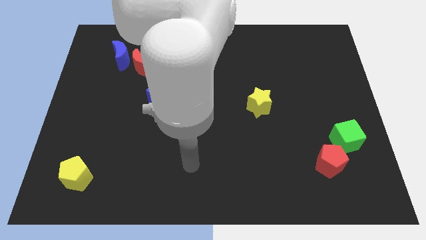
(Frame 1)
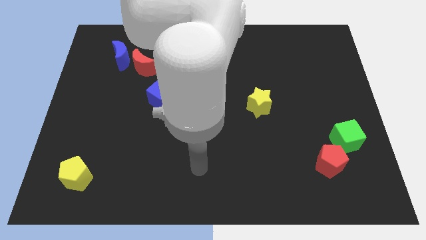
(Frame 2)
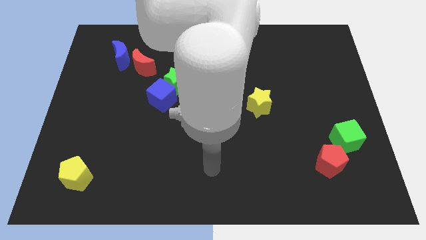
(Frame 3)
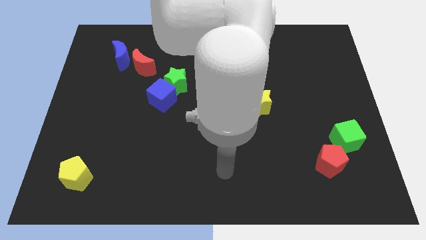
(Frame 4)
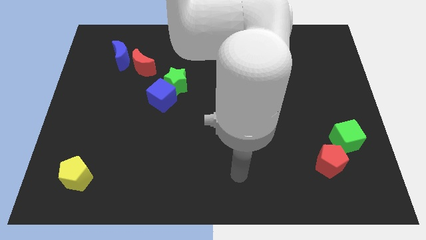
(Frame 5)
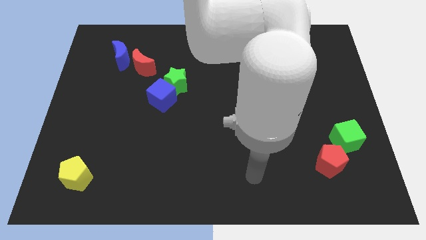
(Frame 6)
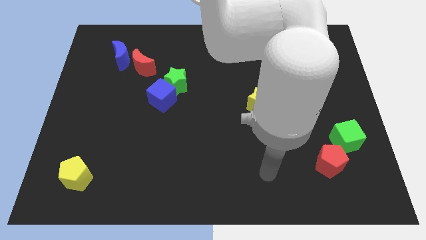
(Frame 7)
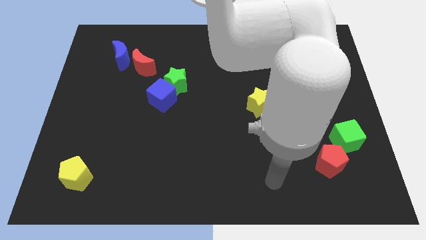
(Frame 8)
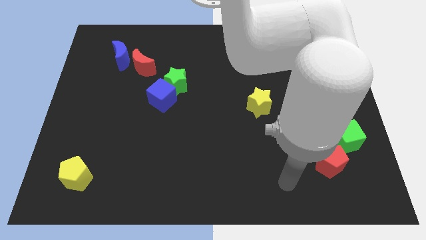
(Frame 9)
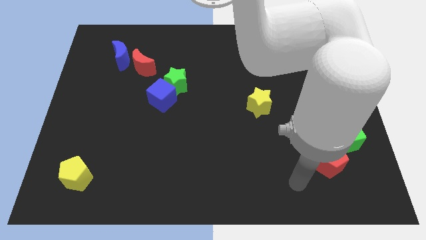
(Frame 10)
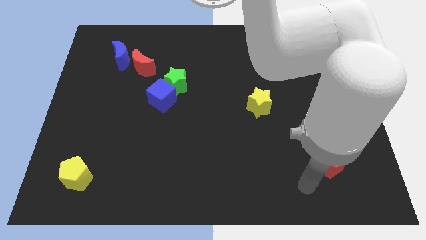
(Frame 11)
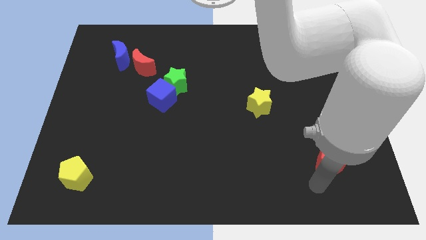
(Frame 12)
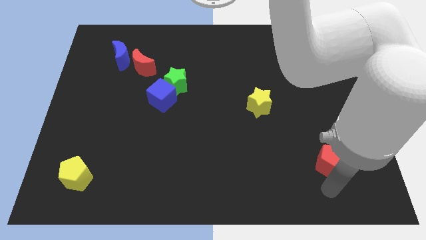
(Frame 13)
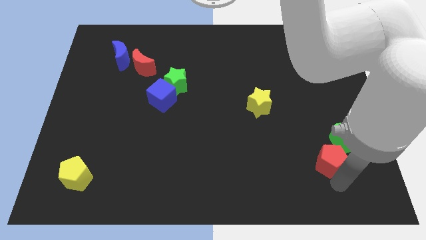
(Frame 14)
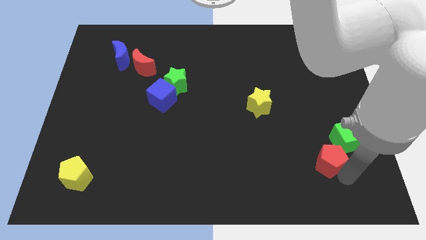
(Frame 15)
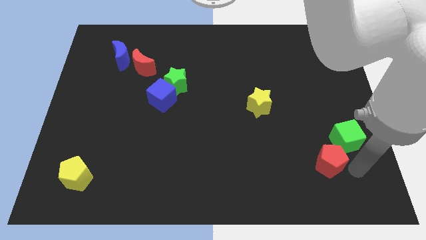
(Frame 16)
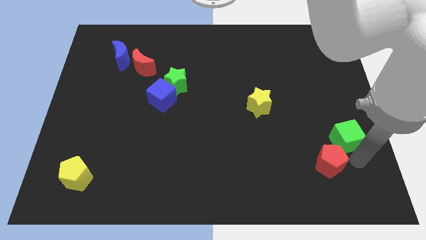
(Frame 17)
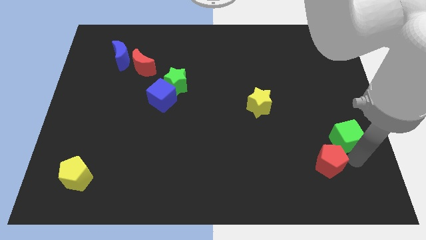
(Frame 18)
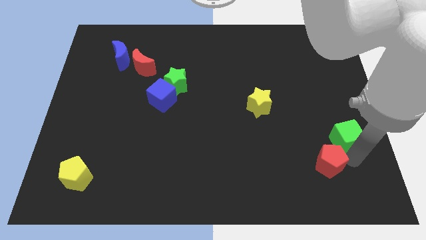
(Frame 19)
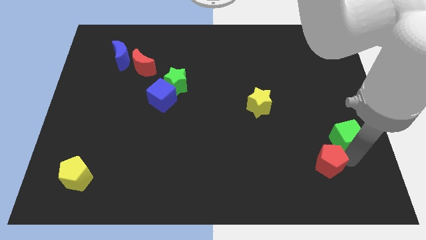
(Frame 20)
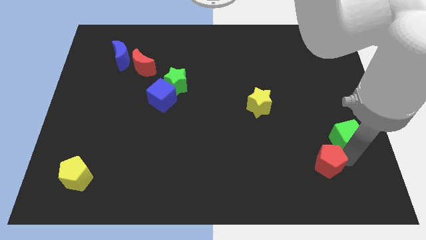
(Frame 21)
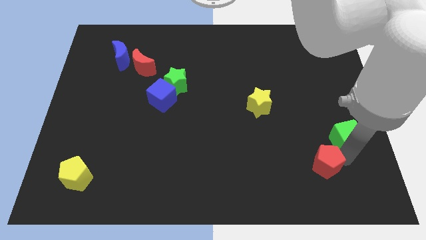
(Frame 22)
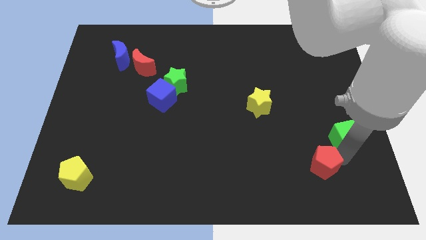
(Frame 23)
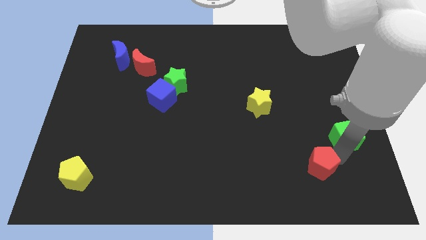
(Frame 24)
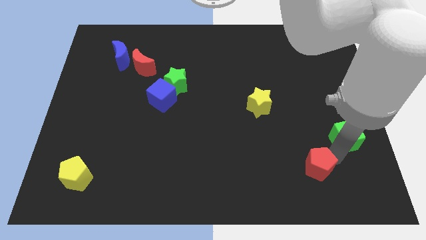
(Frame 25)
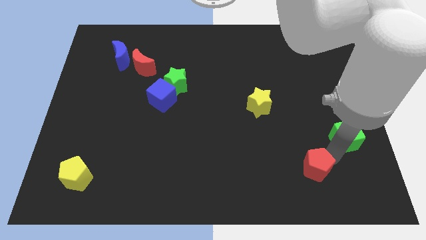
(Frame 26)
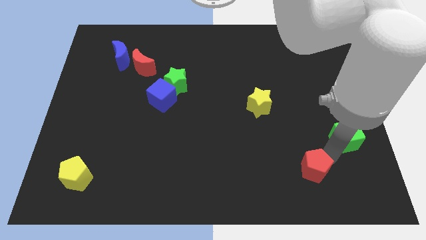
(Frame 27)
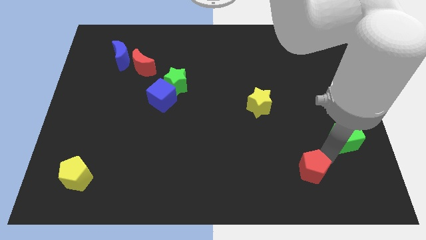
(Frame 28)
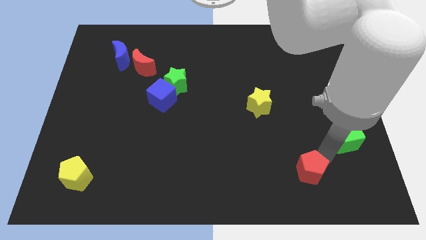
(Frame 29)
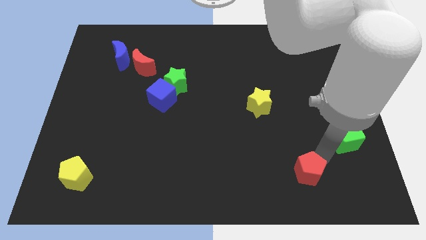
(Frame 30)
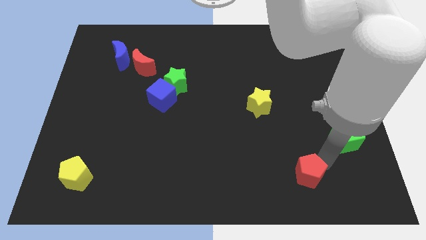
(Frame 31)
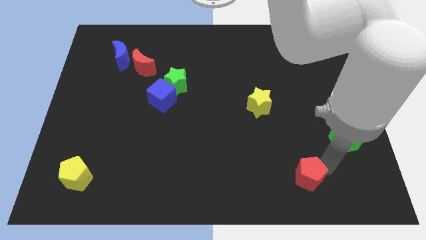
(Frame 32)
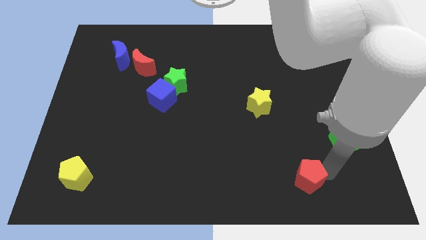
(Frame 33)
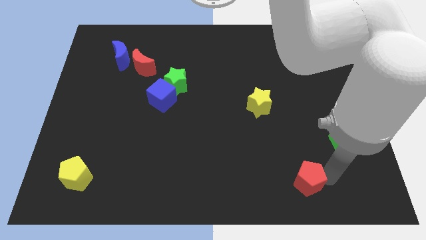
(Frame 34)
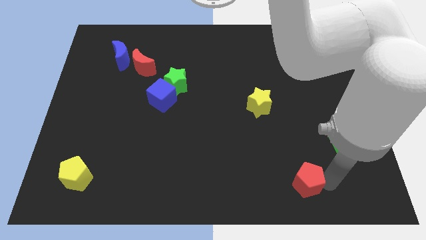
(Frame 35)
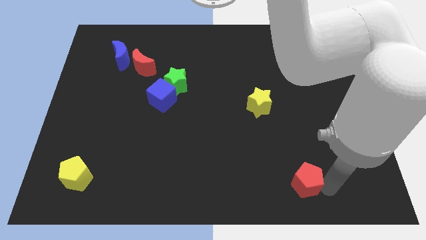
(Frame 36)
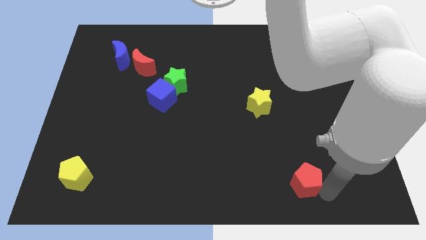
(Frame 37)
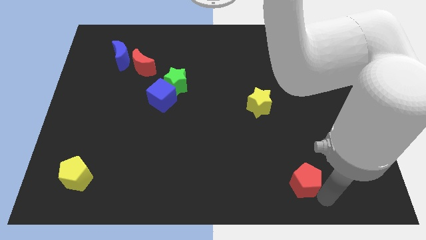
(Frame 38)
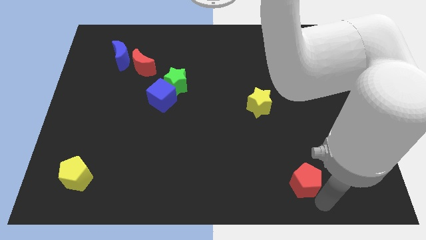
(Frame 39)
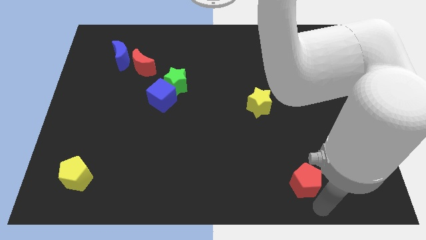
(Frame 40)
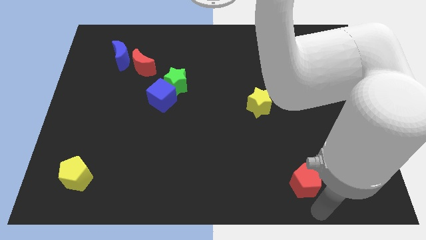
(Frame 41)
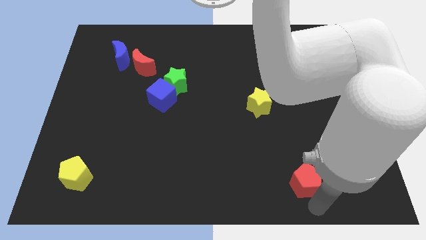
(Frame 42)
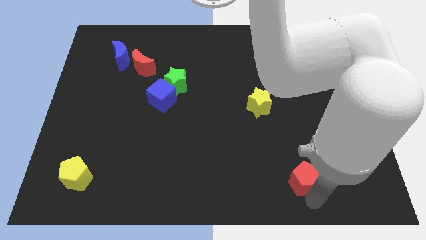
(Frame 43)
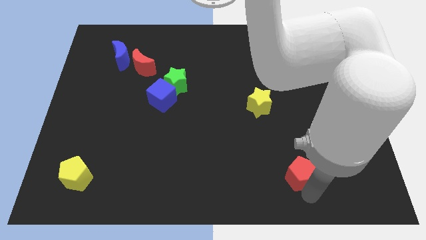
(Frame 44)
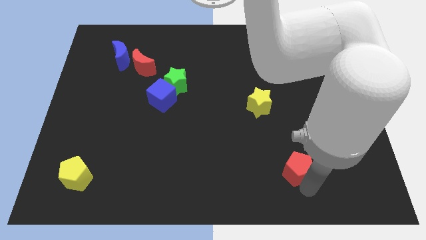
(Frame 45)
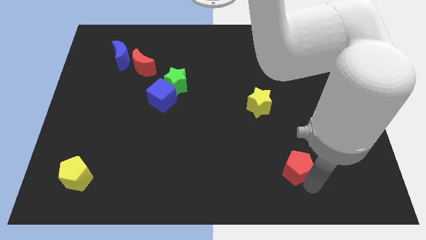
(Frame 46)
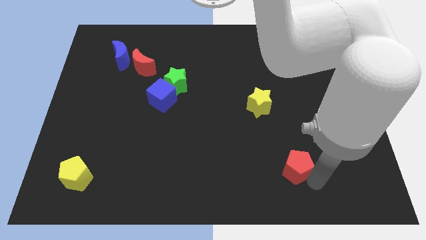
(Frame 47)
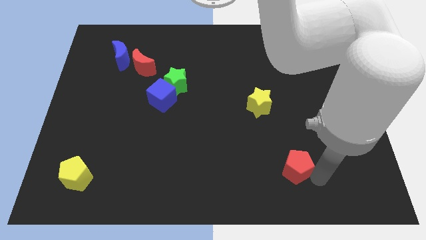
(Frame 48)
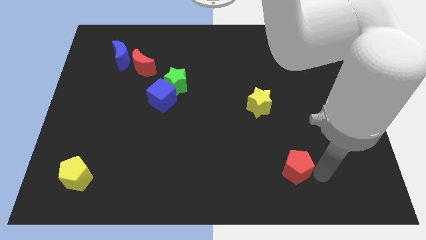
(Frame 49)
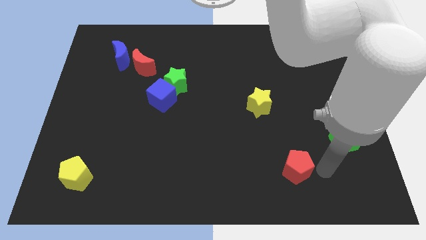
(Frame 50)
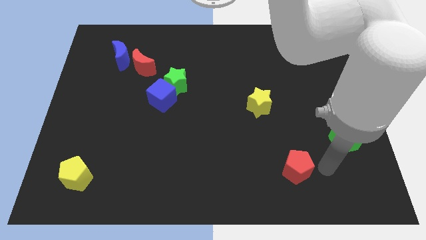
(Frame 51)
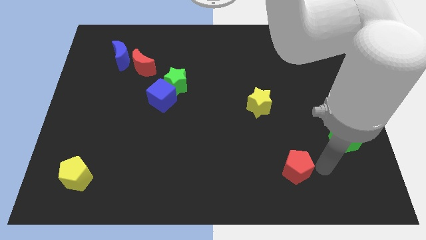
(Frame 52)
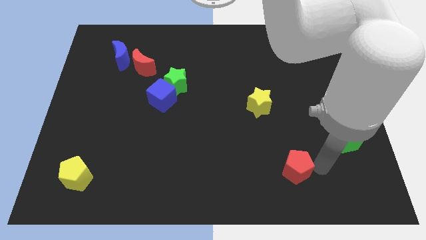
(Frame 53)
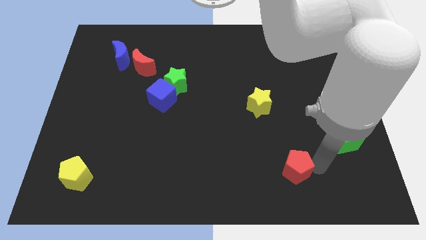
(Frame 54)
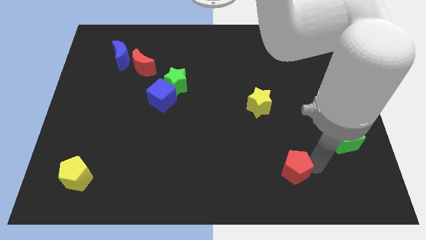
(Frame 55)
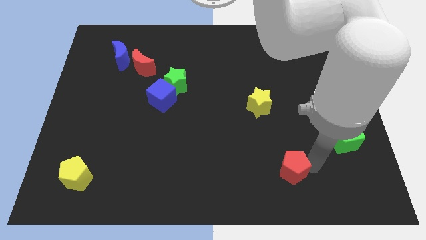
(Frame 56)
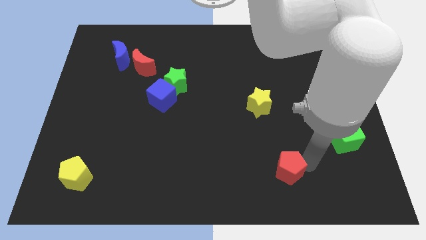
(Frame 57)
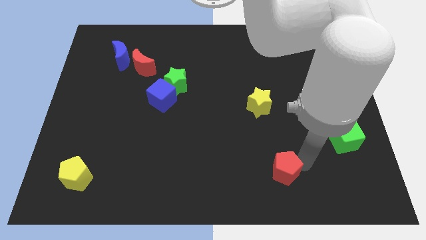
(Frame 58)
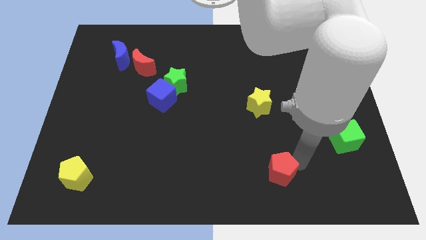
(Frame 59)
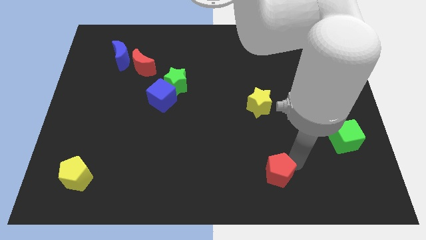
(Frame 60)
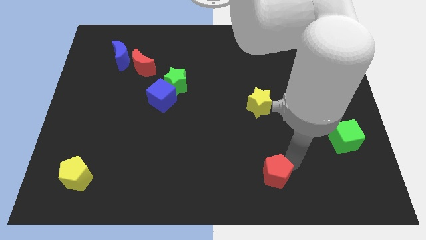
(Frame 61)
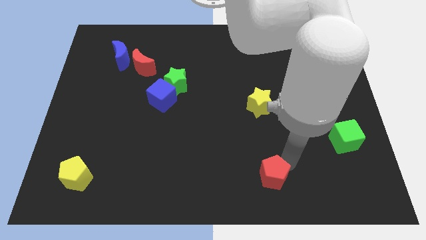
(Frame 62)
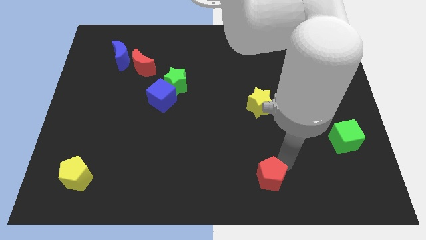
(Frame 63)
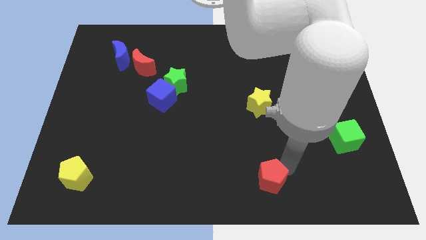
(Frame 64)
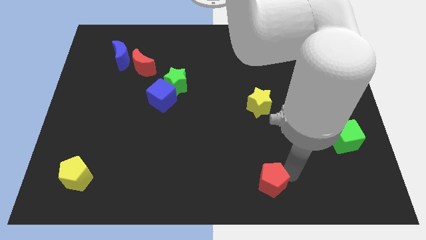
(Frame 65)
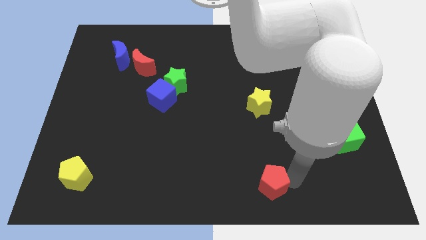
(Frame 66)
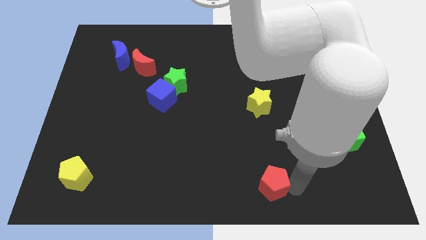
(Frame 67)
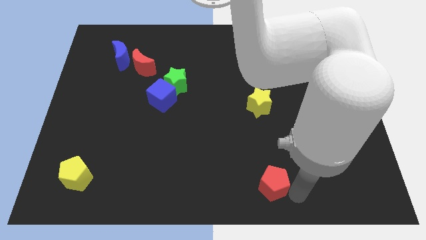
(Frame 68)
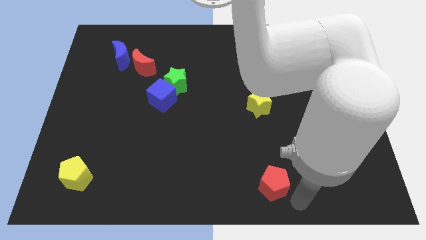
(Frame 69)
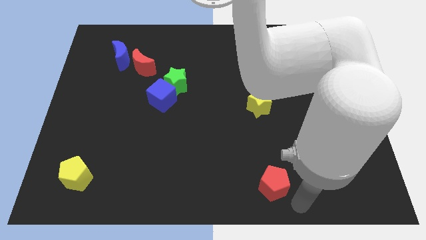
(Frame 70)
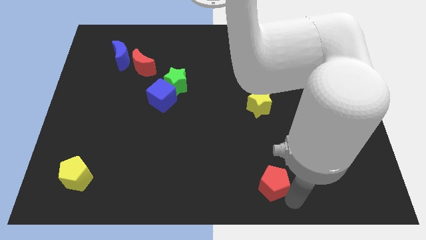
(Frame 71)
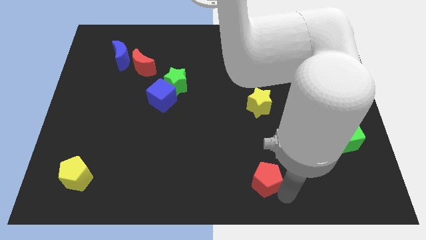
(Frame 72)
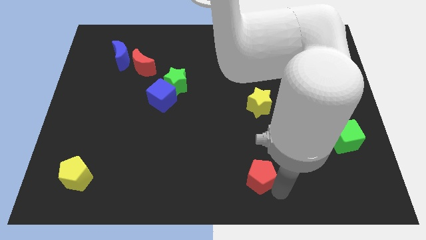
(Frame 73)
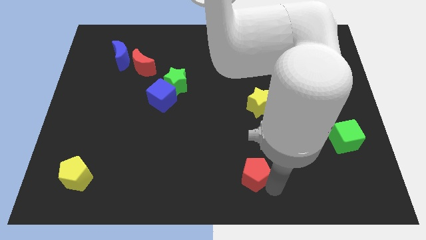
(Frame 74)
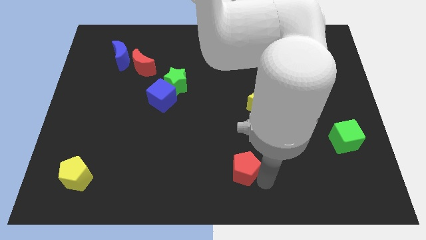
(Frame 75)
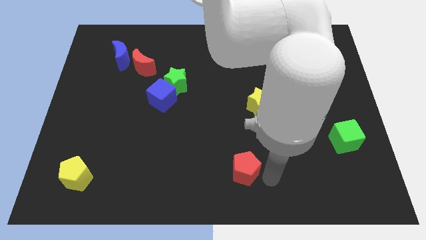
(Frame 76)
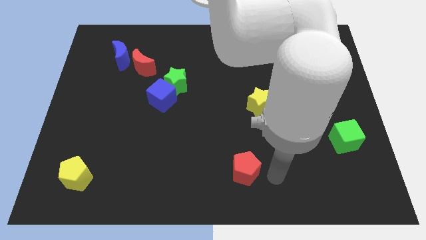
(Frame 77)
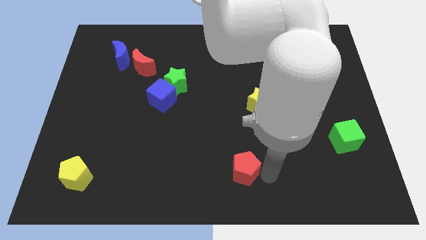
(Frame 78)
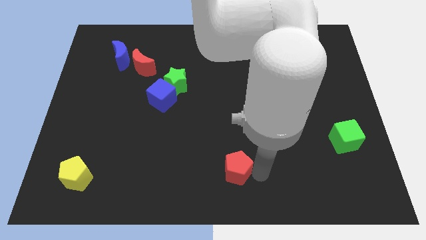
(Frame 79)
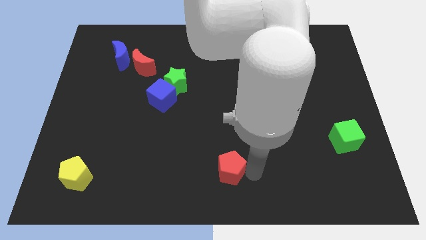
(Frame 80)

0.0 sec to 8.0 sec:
move the red pentagon to the left
